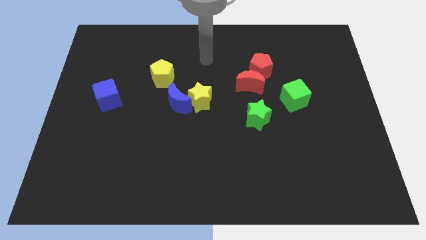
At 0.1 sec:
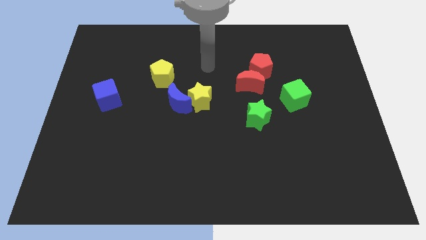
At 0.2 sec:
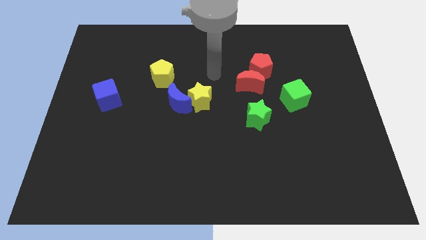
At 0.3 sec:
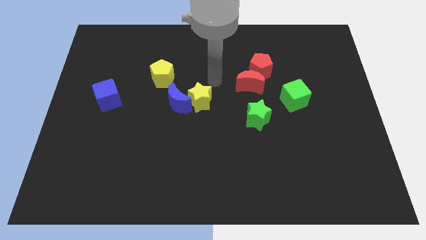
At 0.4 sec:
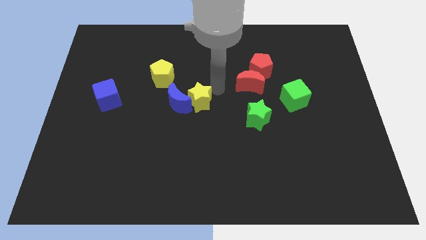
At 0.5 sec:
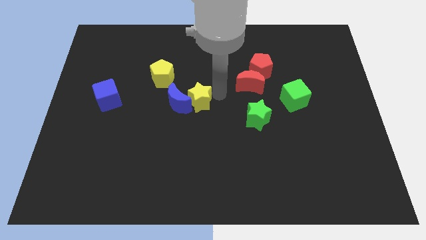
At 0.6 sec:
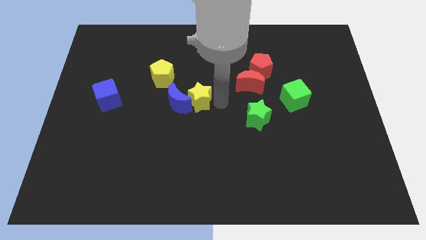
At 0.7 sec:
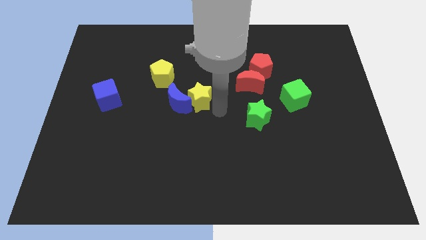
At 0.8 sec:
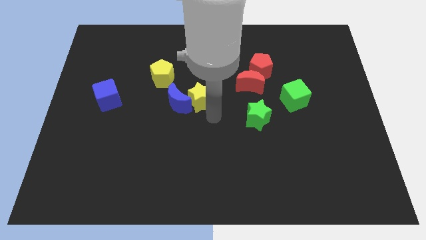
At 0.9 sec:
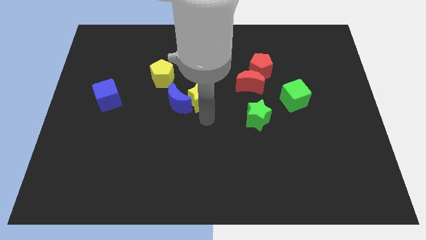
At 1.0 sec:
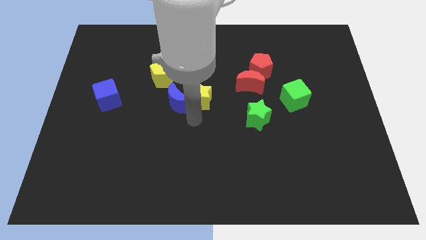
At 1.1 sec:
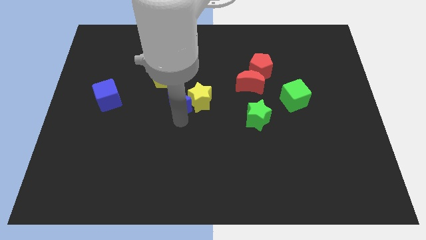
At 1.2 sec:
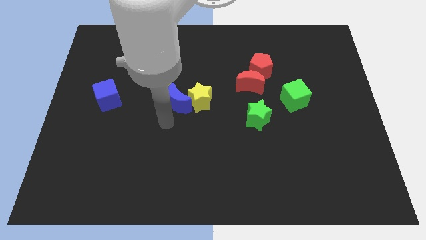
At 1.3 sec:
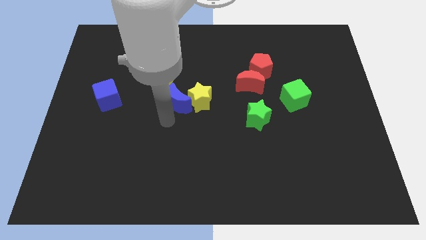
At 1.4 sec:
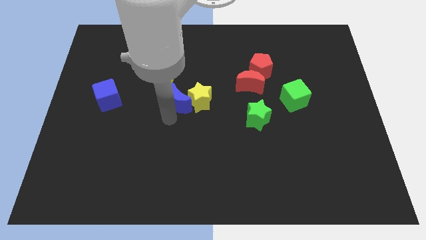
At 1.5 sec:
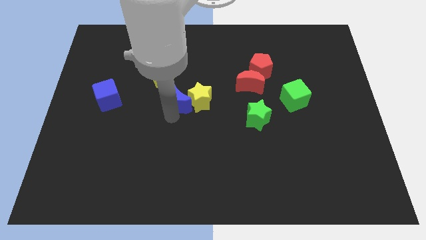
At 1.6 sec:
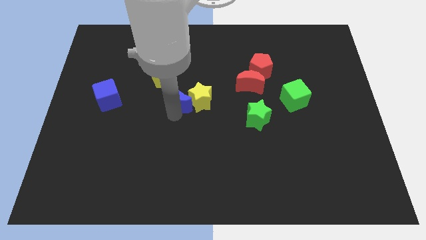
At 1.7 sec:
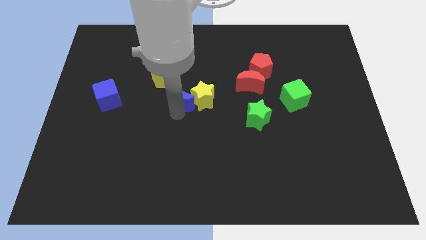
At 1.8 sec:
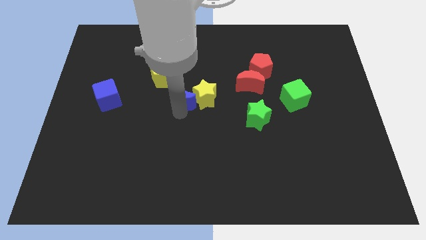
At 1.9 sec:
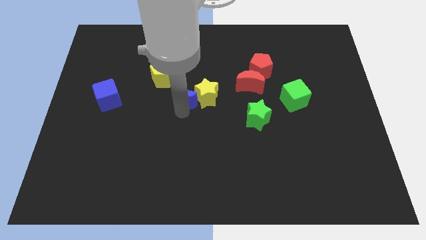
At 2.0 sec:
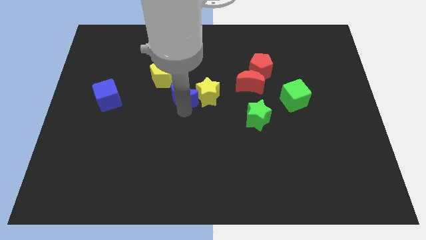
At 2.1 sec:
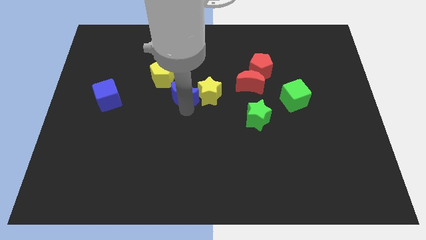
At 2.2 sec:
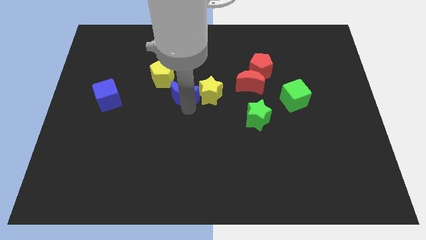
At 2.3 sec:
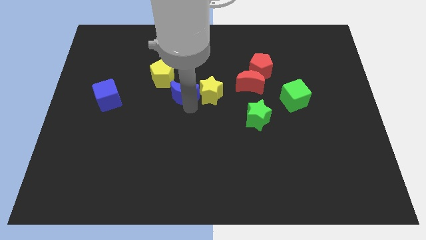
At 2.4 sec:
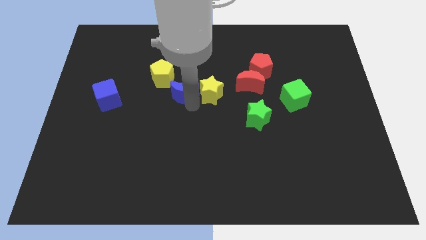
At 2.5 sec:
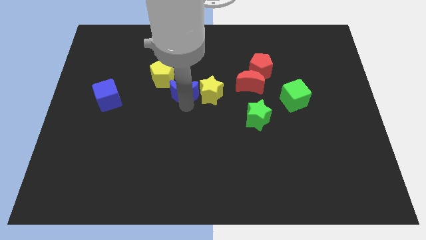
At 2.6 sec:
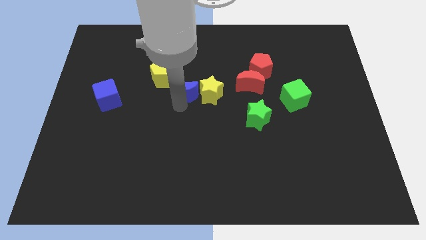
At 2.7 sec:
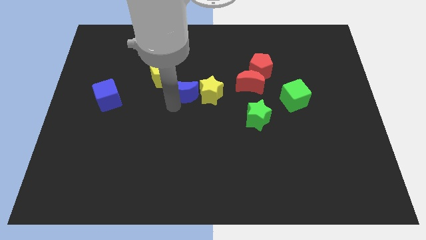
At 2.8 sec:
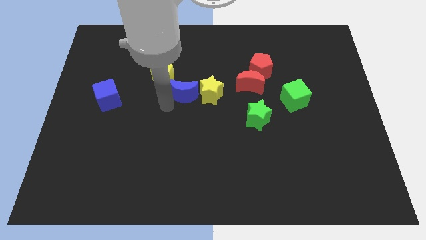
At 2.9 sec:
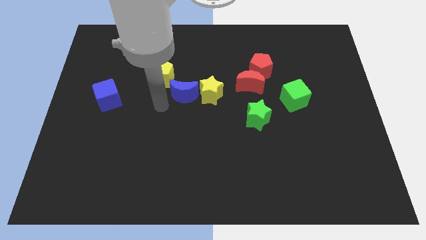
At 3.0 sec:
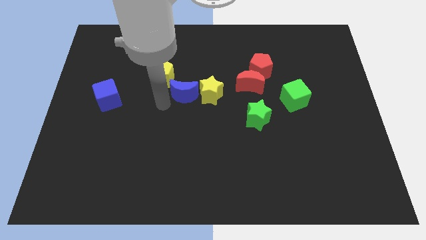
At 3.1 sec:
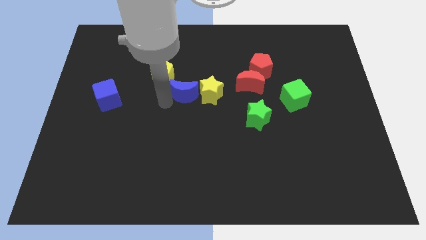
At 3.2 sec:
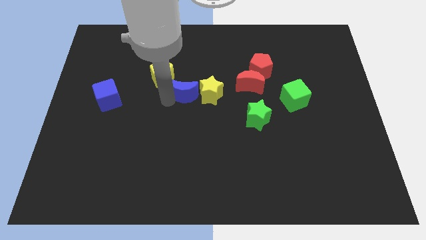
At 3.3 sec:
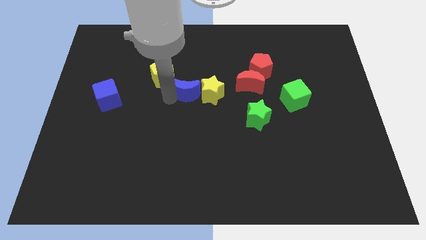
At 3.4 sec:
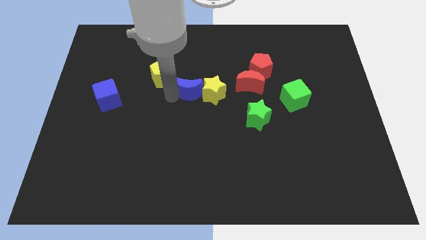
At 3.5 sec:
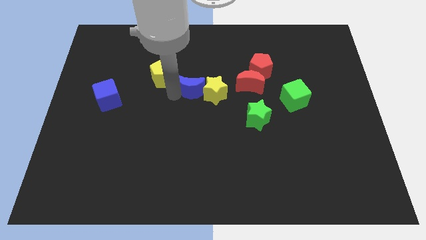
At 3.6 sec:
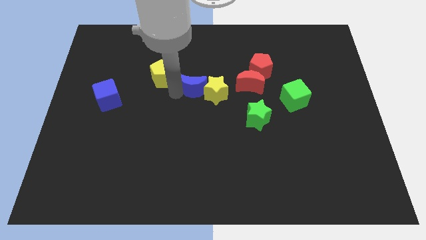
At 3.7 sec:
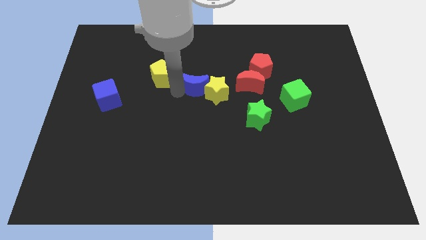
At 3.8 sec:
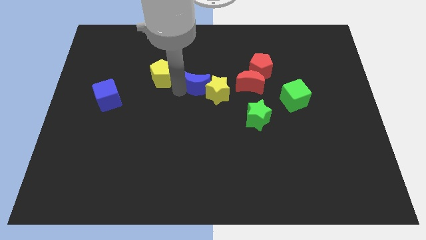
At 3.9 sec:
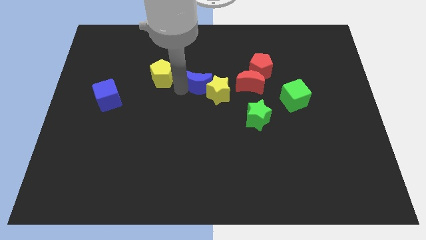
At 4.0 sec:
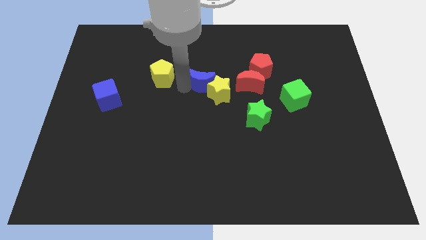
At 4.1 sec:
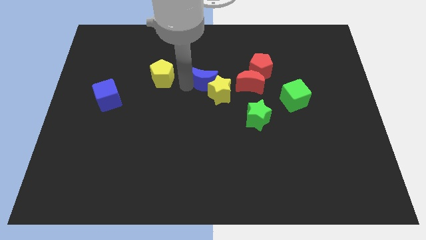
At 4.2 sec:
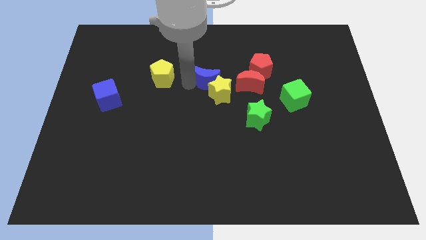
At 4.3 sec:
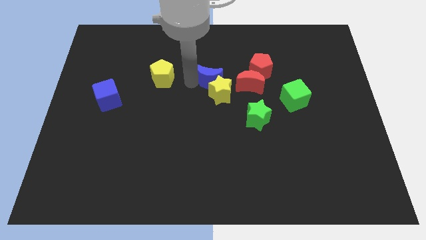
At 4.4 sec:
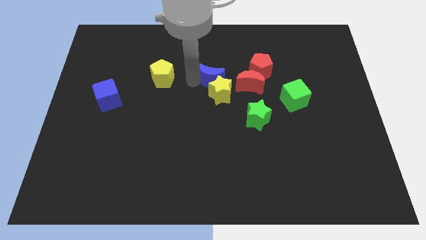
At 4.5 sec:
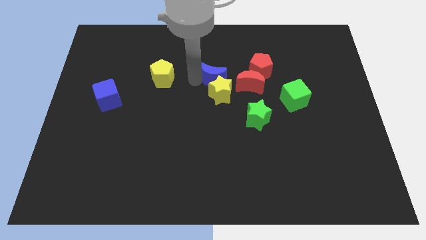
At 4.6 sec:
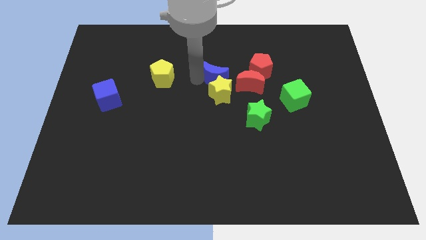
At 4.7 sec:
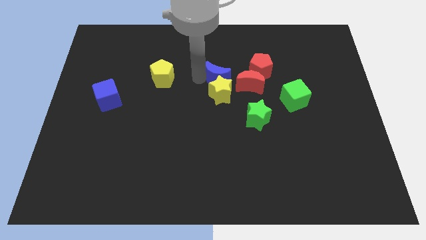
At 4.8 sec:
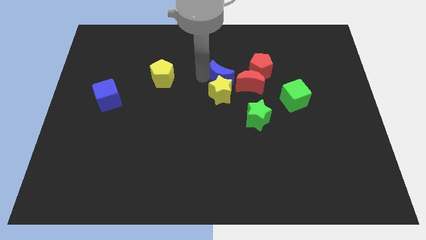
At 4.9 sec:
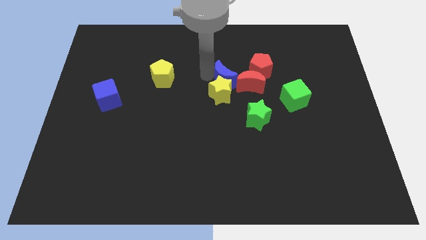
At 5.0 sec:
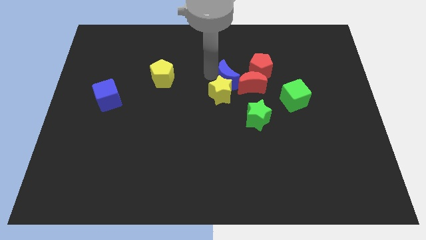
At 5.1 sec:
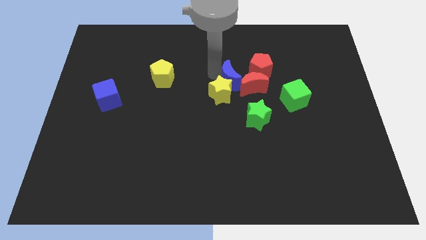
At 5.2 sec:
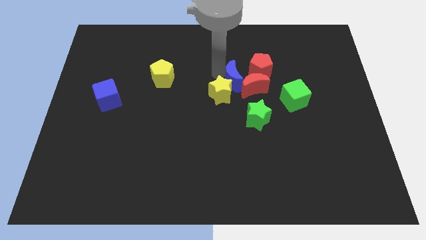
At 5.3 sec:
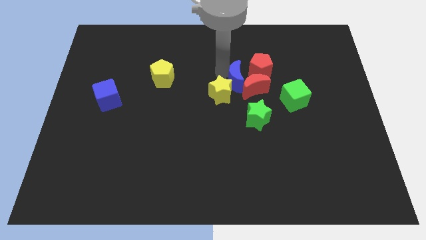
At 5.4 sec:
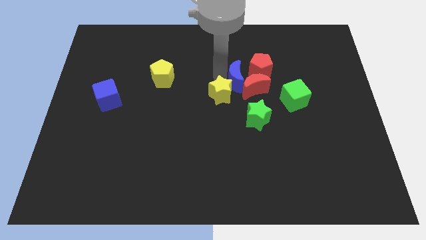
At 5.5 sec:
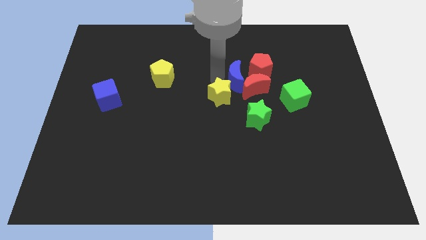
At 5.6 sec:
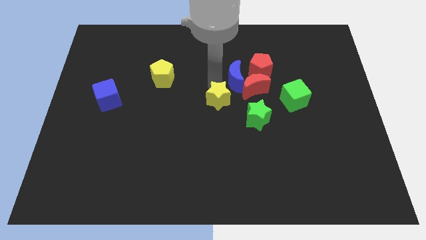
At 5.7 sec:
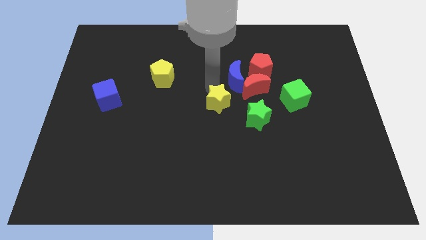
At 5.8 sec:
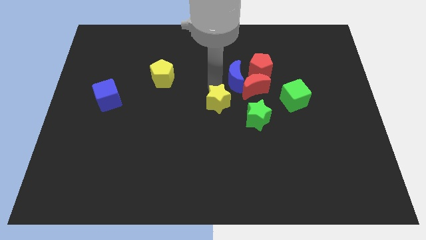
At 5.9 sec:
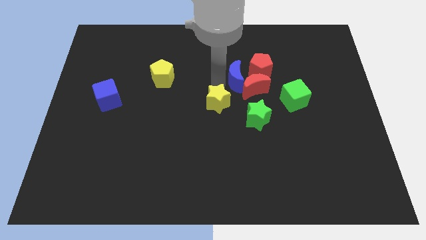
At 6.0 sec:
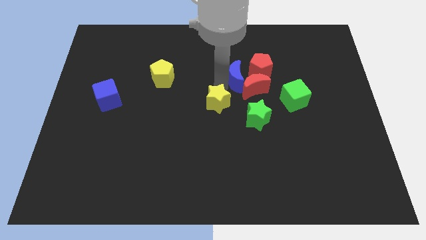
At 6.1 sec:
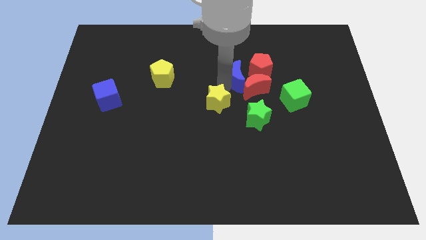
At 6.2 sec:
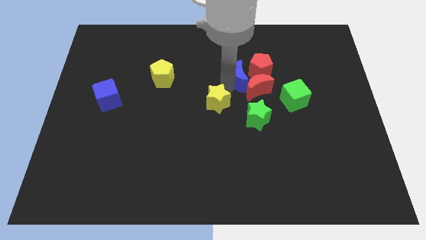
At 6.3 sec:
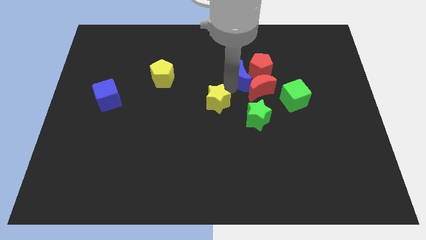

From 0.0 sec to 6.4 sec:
slide the blue moon towards the red pentagon

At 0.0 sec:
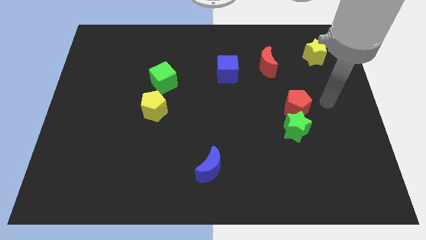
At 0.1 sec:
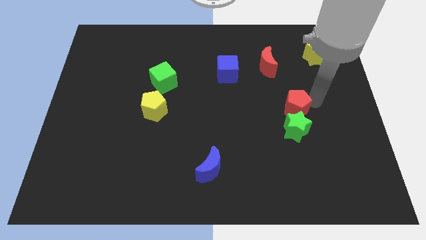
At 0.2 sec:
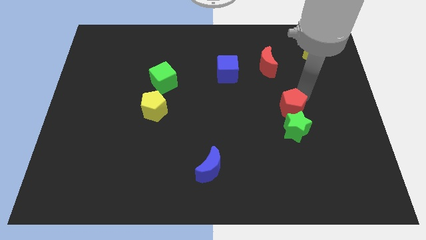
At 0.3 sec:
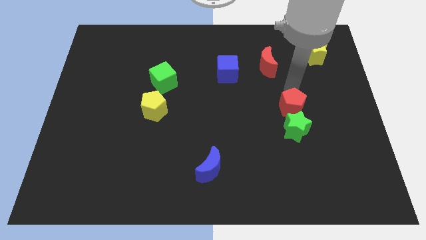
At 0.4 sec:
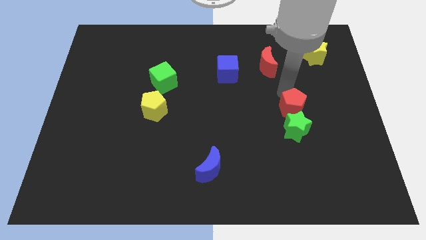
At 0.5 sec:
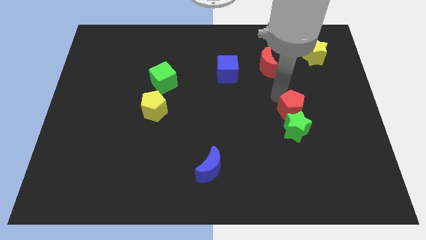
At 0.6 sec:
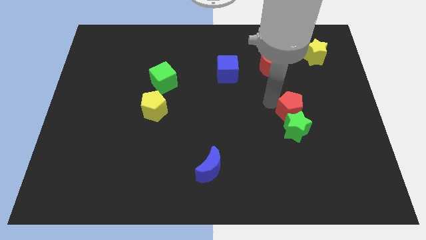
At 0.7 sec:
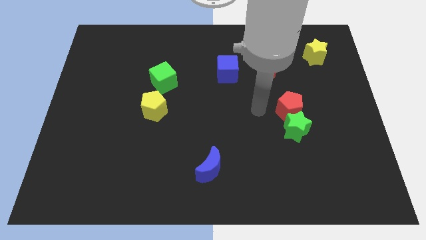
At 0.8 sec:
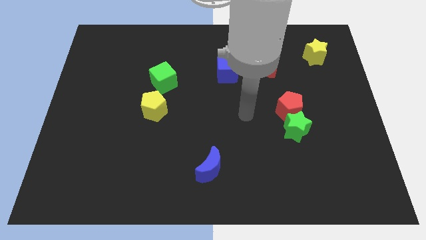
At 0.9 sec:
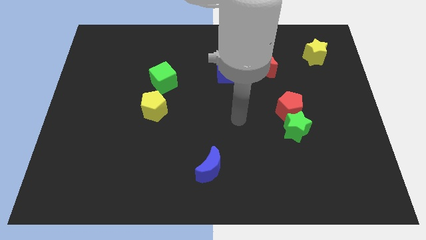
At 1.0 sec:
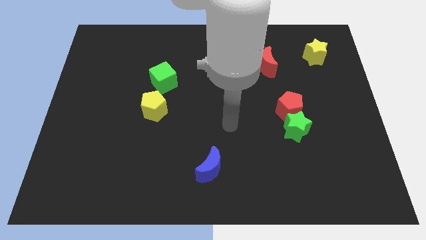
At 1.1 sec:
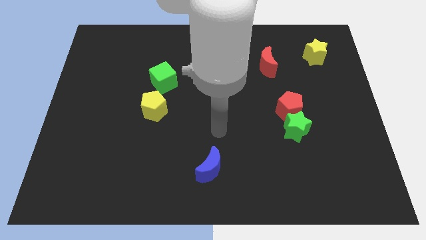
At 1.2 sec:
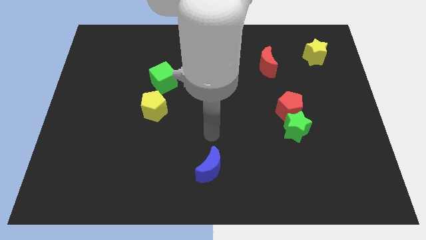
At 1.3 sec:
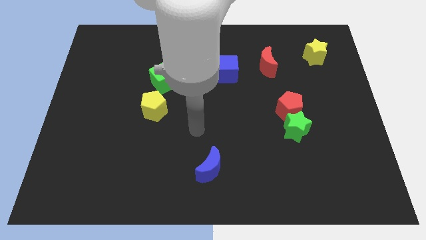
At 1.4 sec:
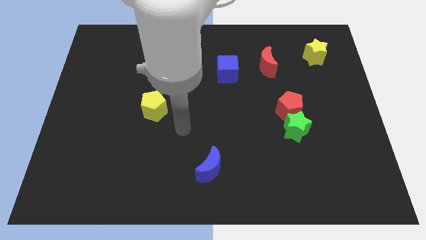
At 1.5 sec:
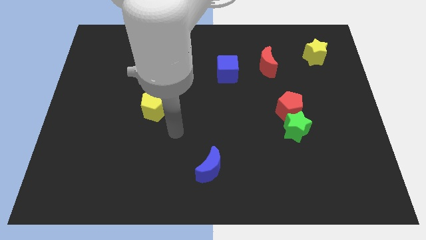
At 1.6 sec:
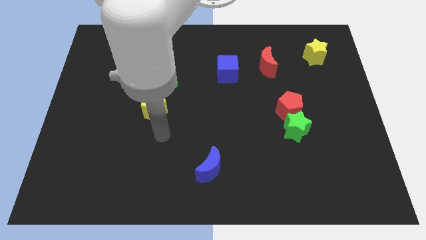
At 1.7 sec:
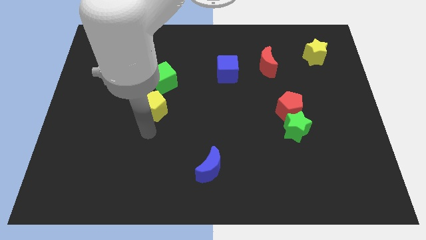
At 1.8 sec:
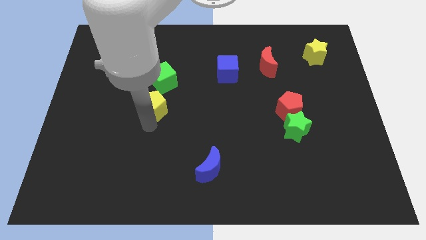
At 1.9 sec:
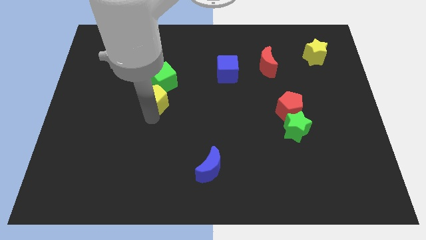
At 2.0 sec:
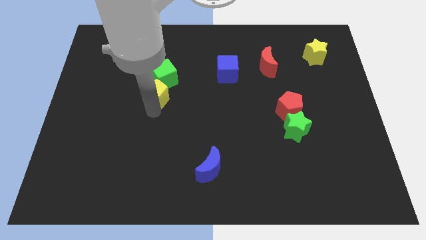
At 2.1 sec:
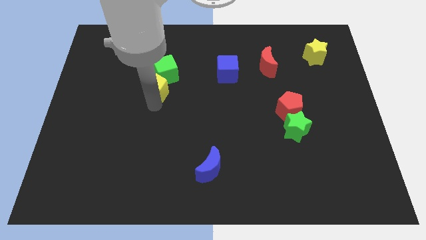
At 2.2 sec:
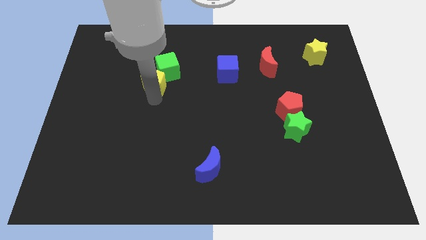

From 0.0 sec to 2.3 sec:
push the yellow pentagon close to the green cube
